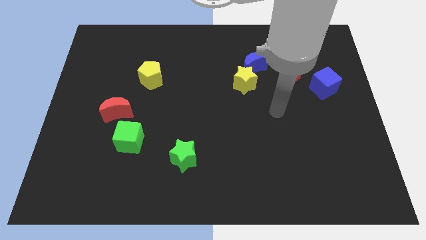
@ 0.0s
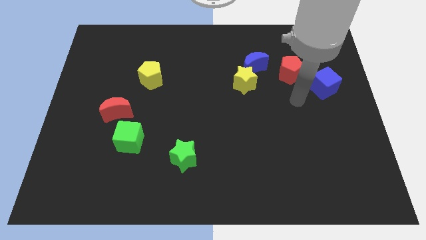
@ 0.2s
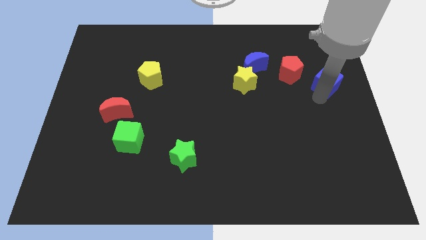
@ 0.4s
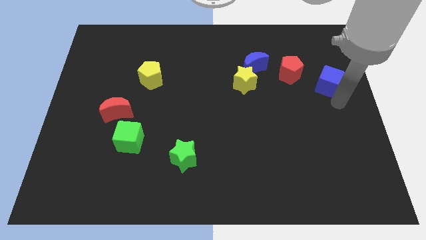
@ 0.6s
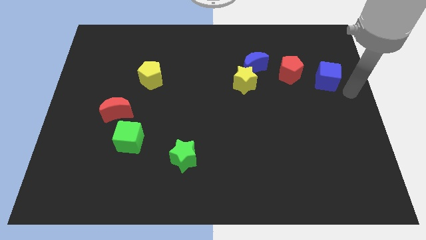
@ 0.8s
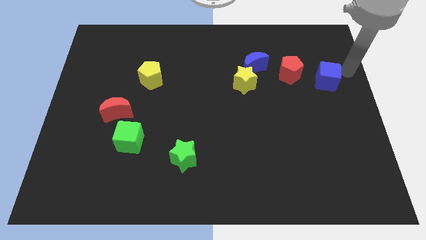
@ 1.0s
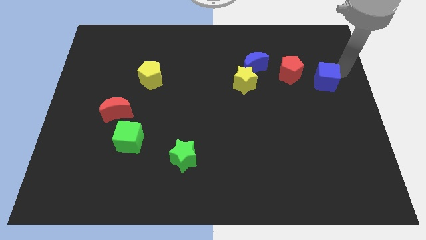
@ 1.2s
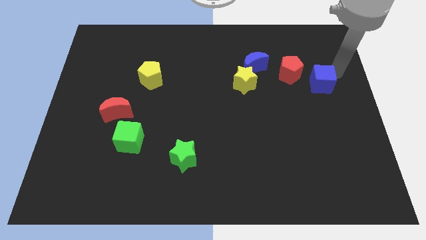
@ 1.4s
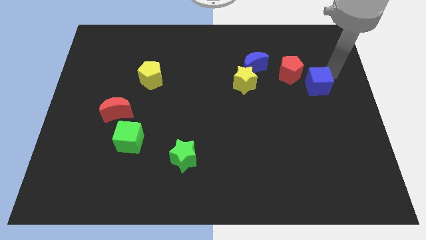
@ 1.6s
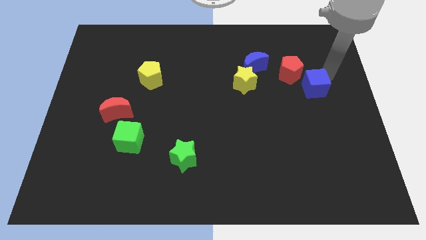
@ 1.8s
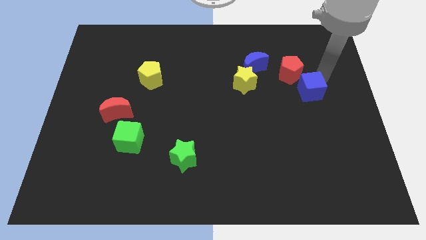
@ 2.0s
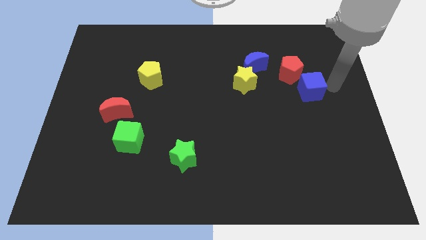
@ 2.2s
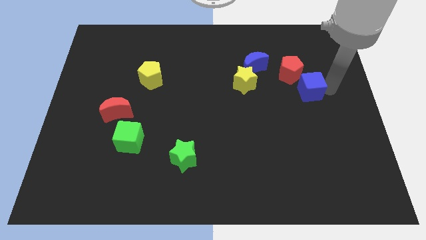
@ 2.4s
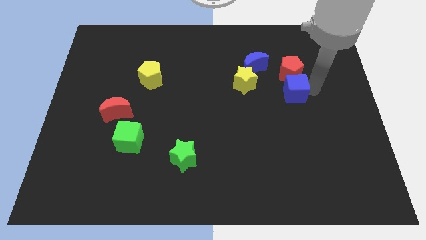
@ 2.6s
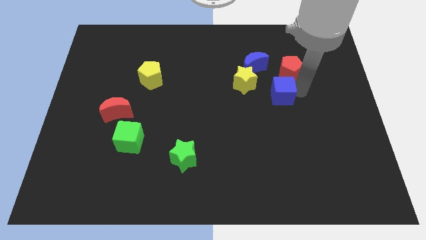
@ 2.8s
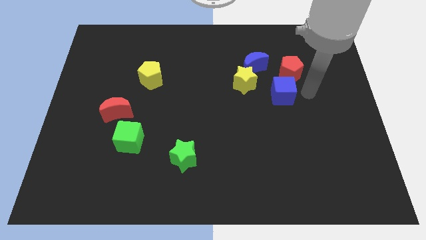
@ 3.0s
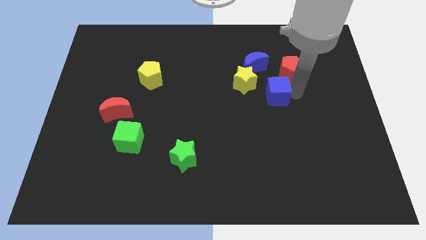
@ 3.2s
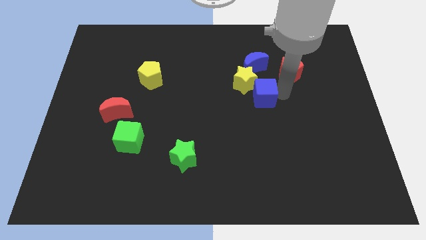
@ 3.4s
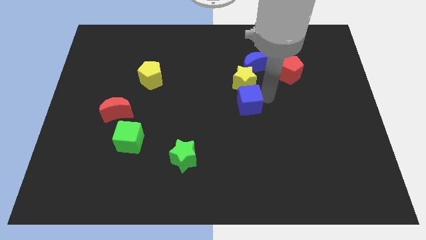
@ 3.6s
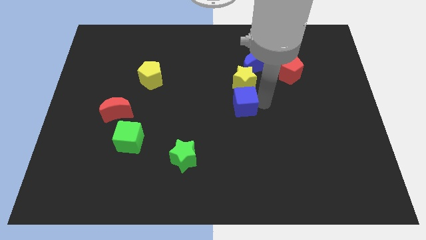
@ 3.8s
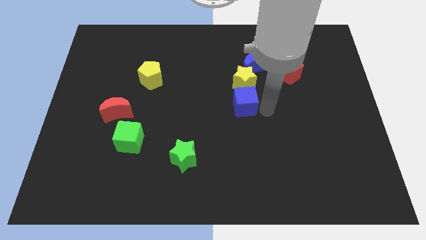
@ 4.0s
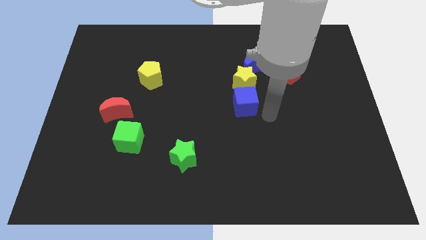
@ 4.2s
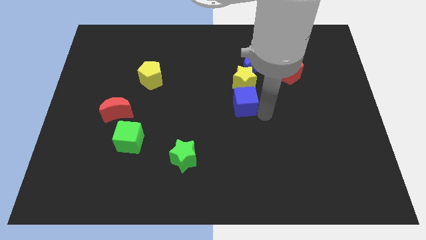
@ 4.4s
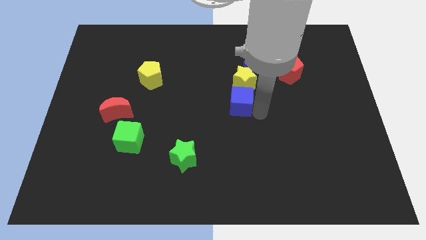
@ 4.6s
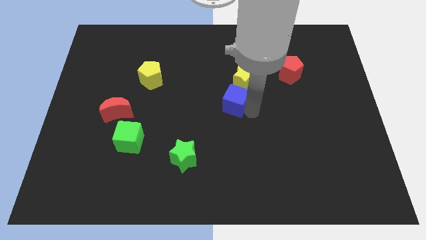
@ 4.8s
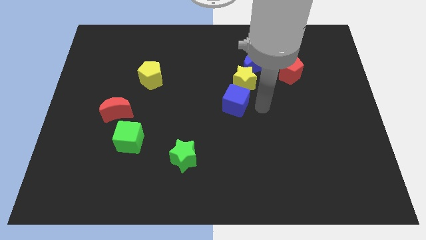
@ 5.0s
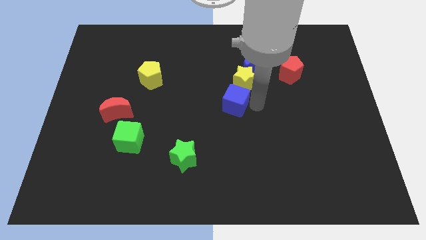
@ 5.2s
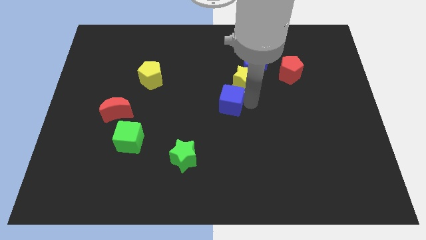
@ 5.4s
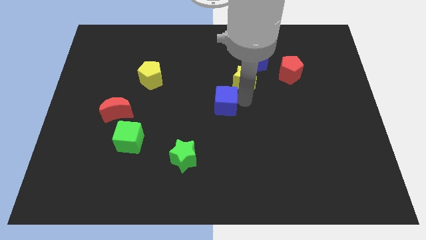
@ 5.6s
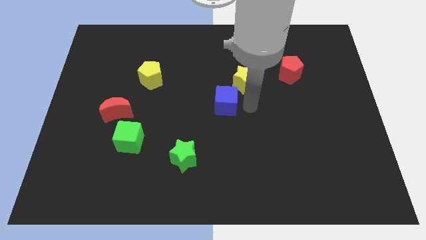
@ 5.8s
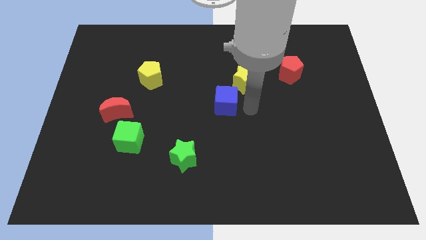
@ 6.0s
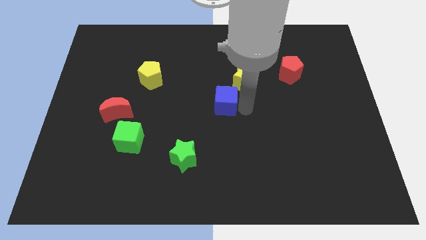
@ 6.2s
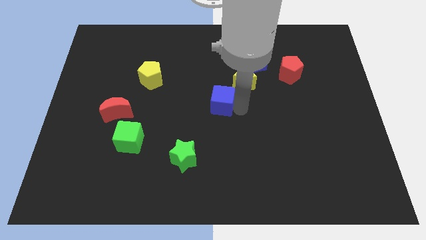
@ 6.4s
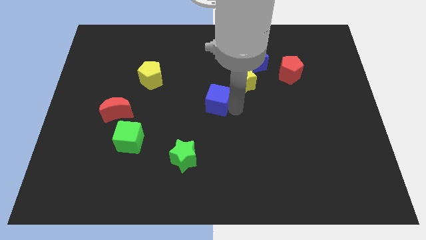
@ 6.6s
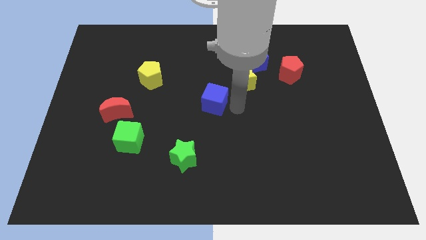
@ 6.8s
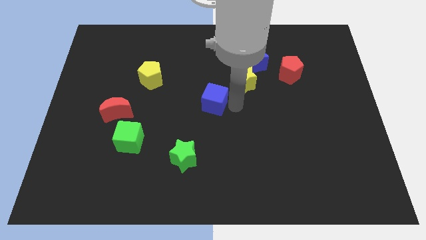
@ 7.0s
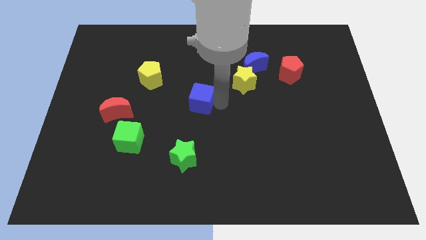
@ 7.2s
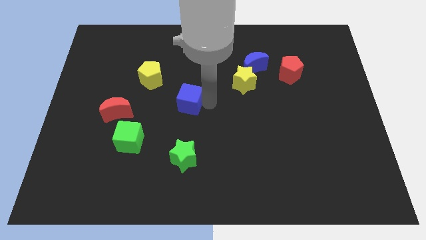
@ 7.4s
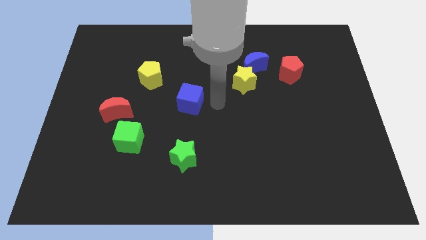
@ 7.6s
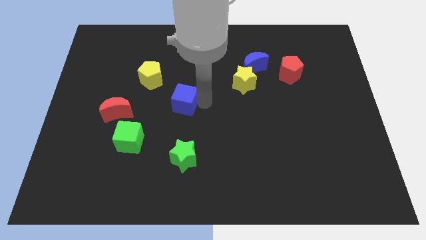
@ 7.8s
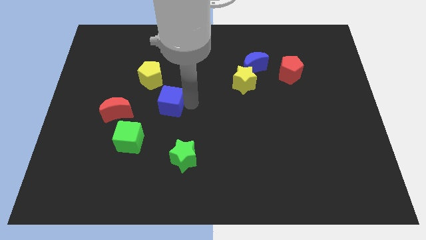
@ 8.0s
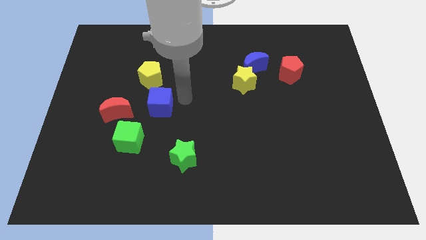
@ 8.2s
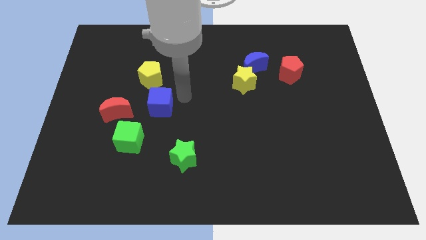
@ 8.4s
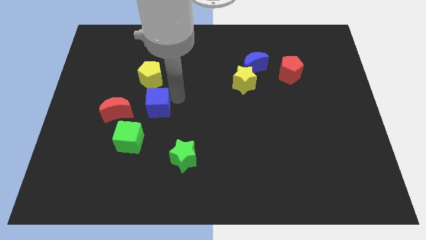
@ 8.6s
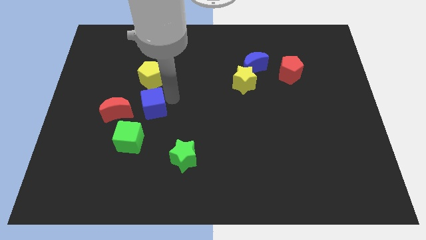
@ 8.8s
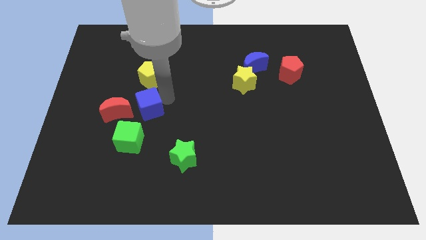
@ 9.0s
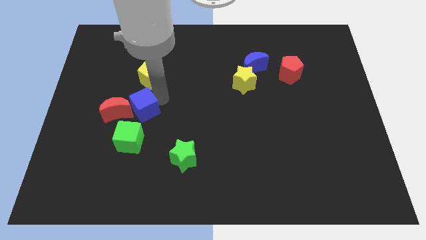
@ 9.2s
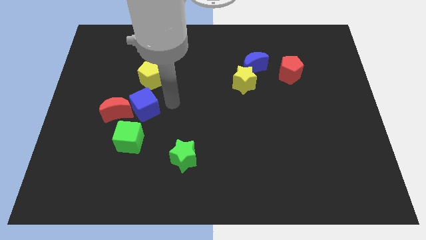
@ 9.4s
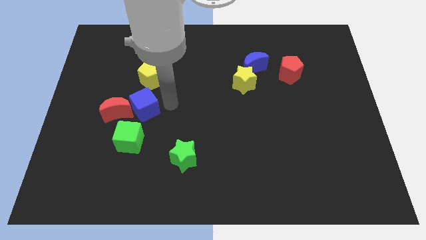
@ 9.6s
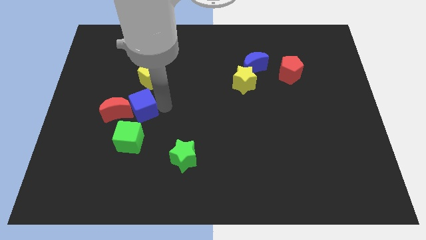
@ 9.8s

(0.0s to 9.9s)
put the blue cube to the red moon

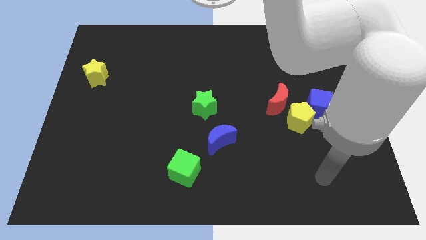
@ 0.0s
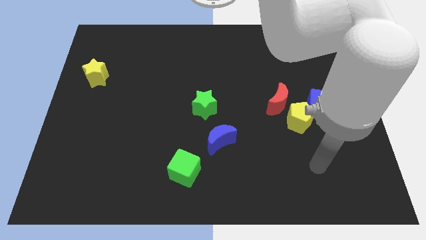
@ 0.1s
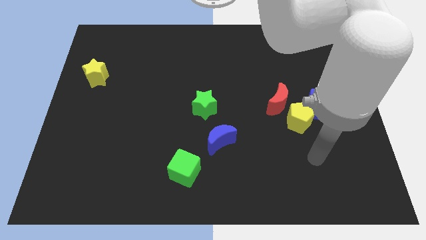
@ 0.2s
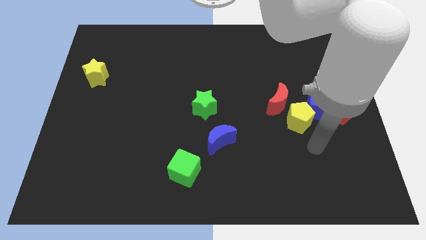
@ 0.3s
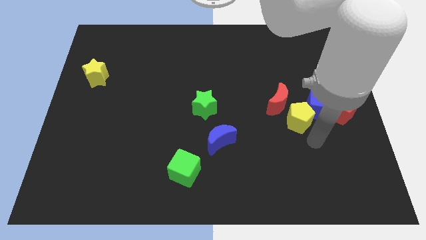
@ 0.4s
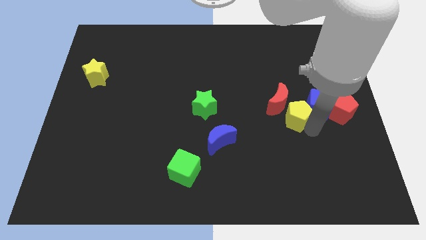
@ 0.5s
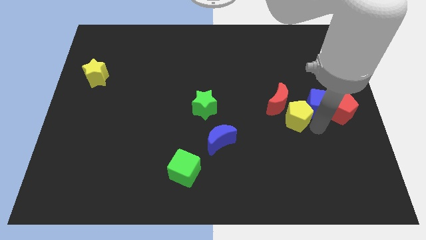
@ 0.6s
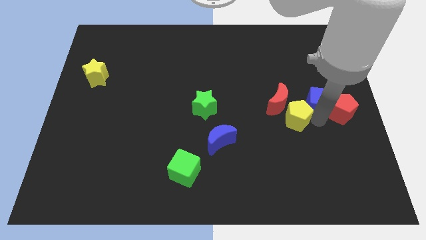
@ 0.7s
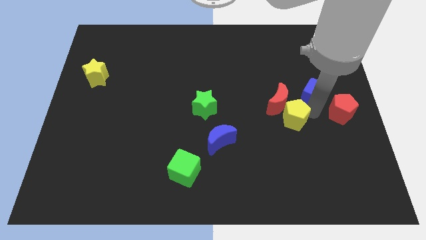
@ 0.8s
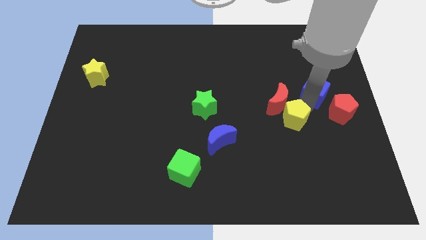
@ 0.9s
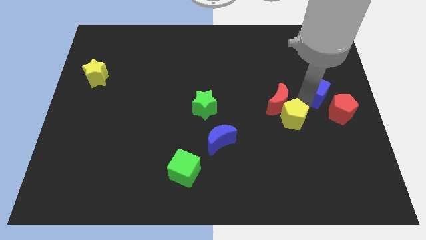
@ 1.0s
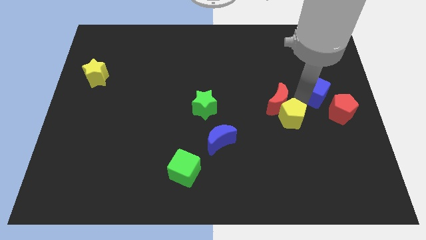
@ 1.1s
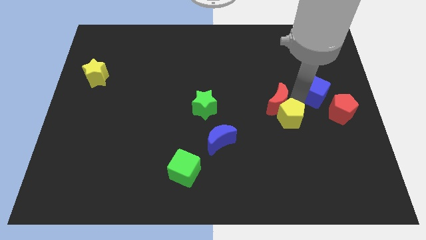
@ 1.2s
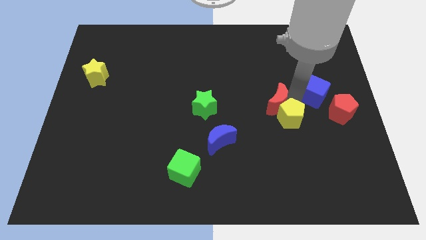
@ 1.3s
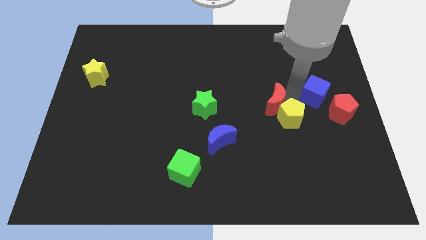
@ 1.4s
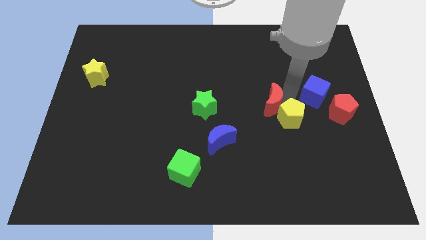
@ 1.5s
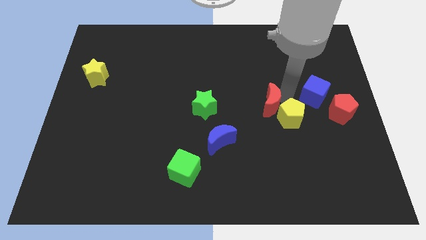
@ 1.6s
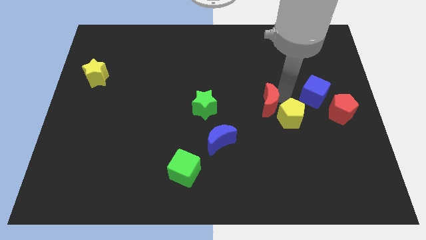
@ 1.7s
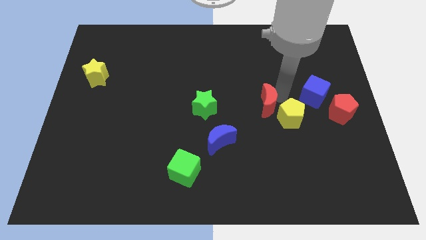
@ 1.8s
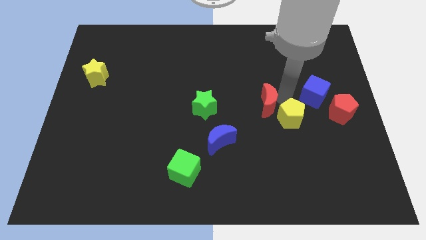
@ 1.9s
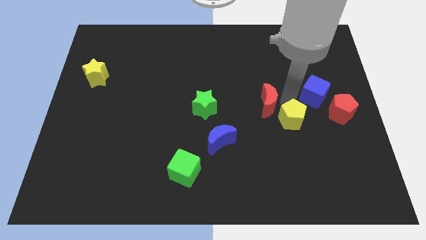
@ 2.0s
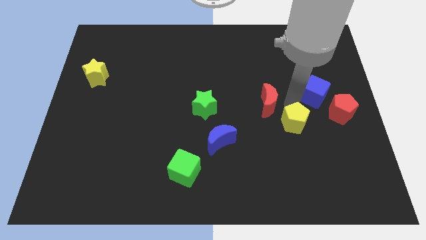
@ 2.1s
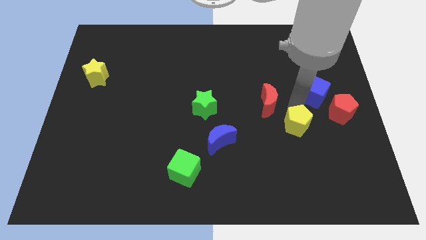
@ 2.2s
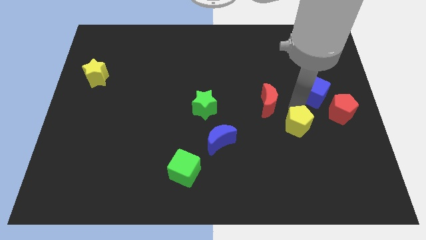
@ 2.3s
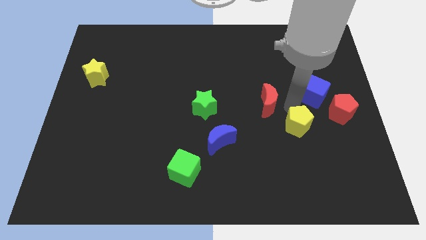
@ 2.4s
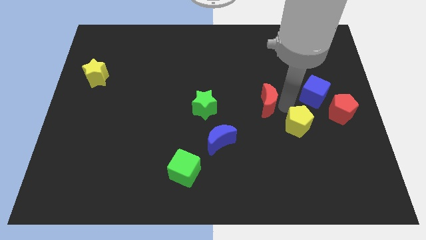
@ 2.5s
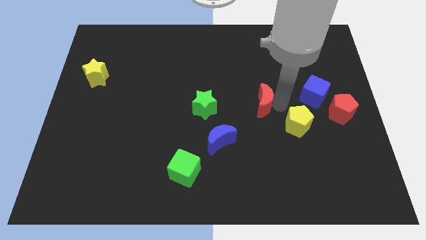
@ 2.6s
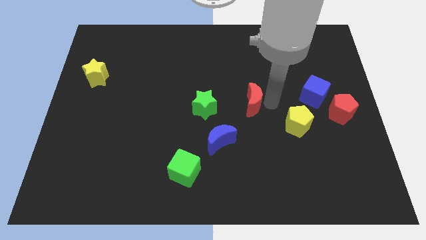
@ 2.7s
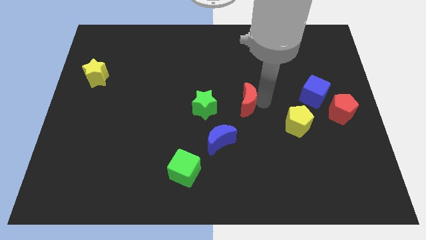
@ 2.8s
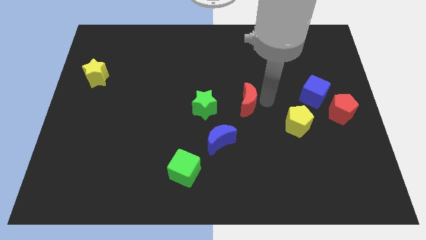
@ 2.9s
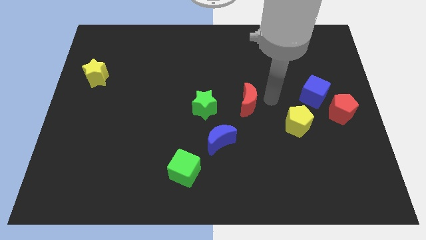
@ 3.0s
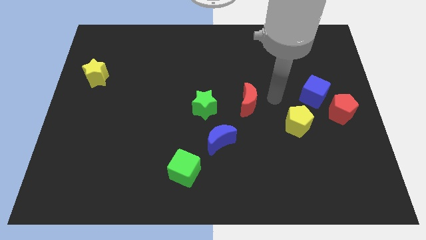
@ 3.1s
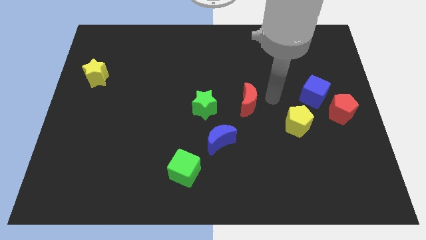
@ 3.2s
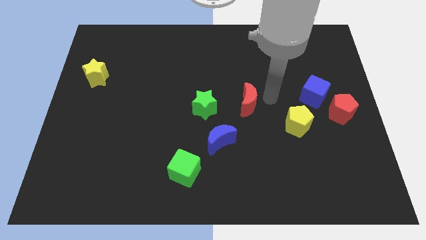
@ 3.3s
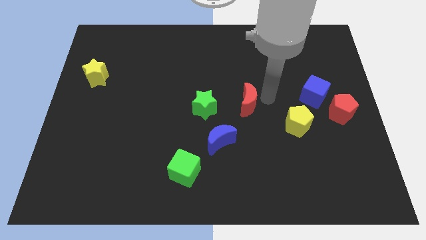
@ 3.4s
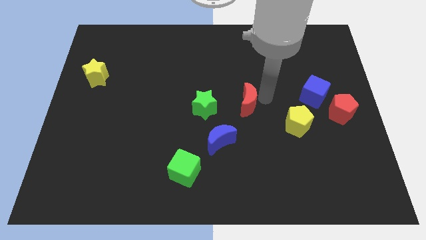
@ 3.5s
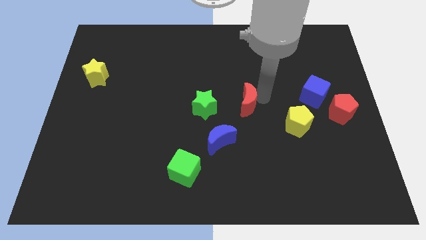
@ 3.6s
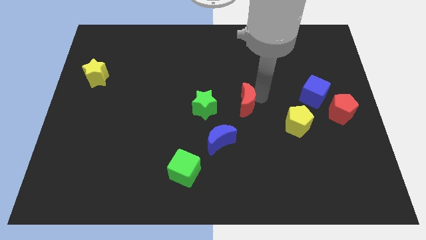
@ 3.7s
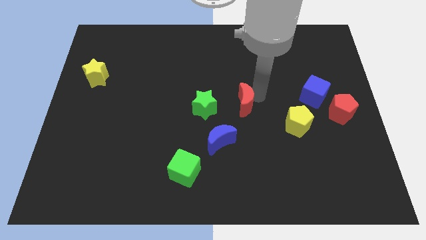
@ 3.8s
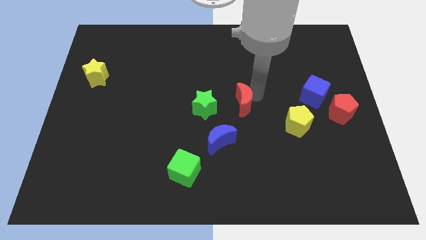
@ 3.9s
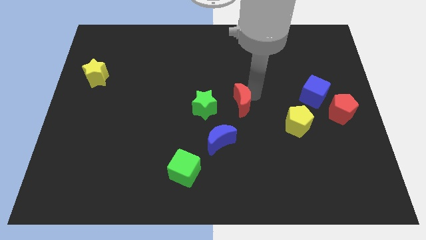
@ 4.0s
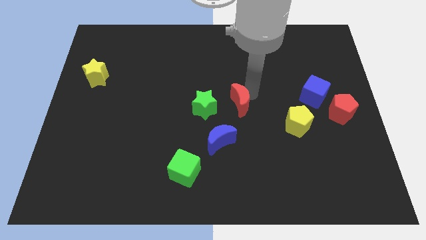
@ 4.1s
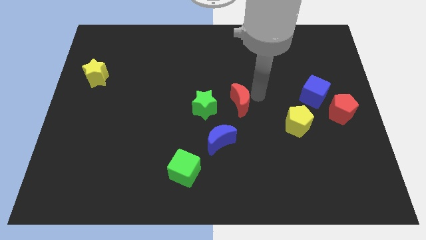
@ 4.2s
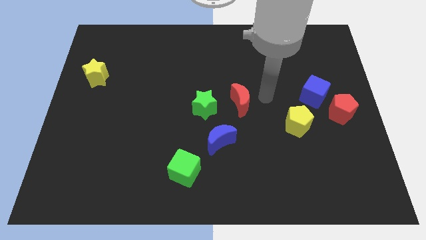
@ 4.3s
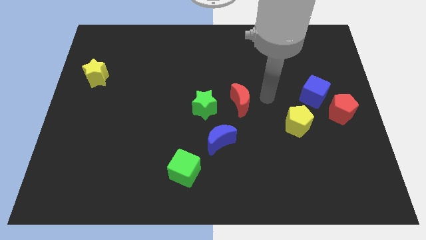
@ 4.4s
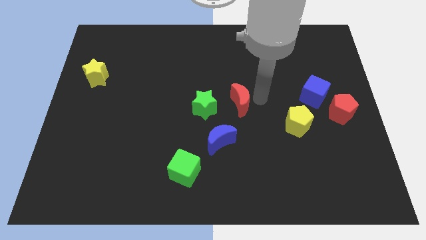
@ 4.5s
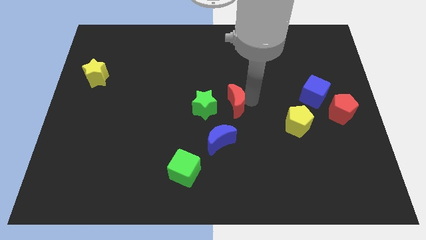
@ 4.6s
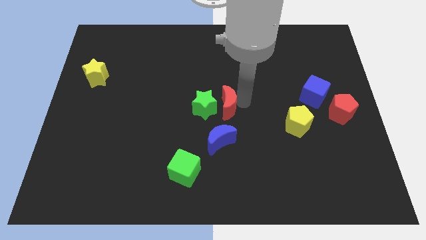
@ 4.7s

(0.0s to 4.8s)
slide the red moon next to the green star
